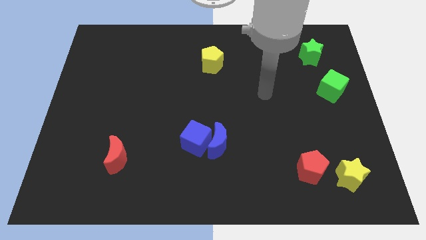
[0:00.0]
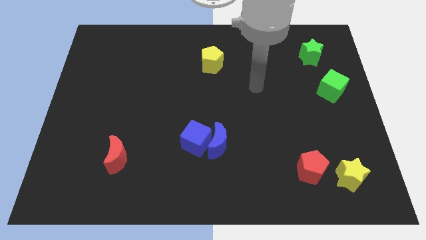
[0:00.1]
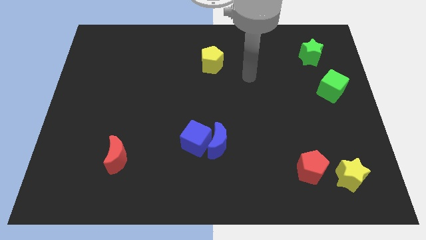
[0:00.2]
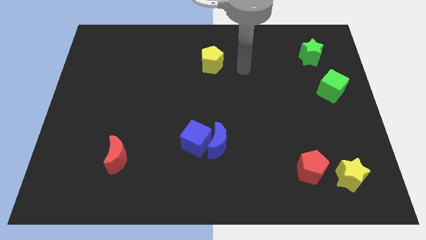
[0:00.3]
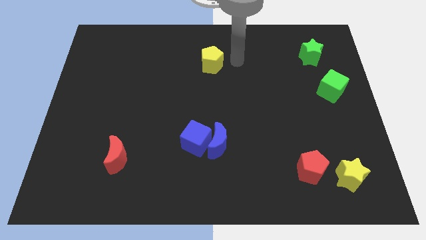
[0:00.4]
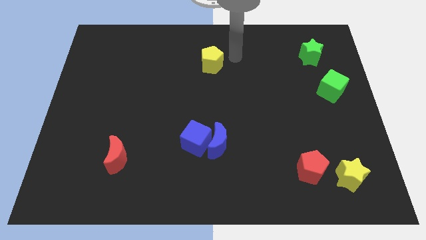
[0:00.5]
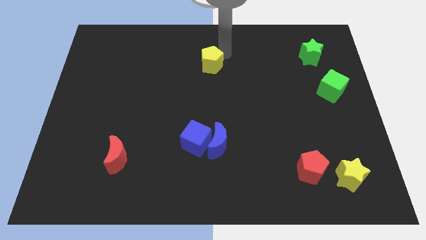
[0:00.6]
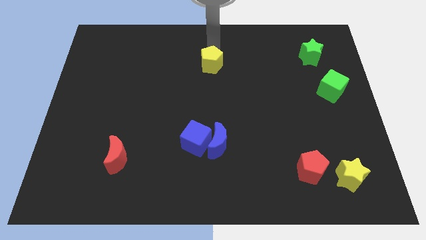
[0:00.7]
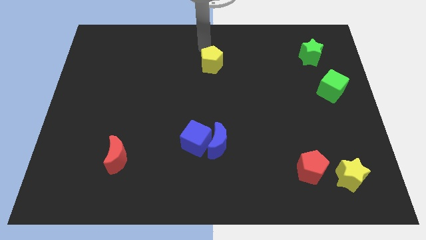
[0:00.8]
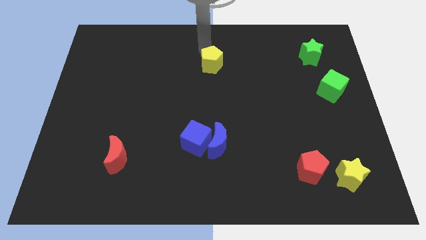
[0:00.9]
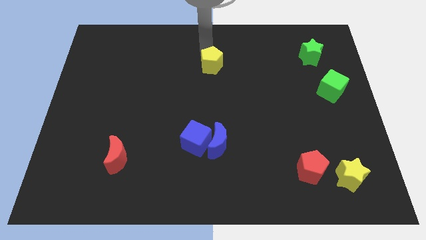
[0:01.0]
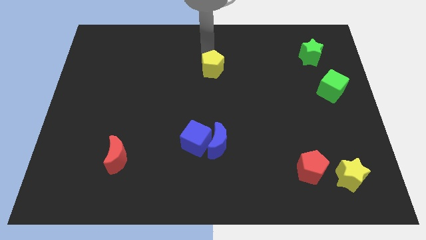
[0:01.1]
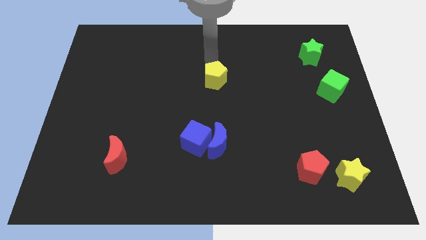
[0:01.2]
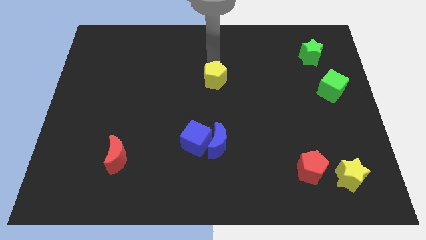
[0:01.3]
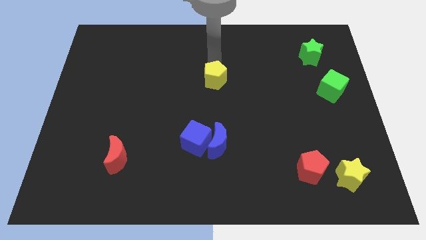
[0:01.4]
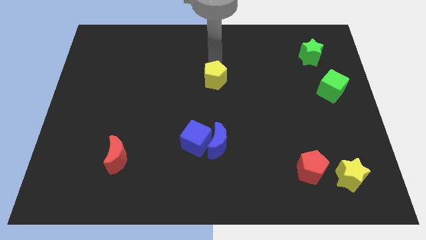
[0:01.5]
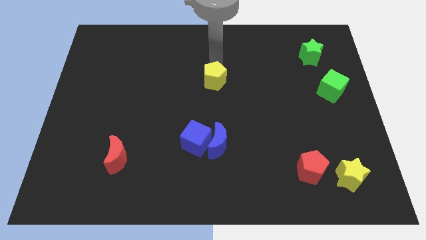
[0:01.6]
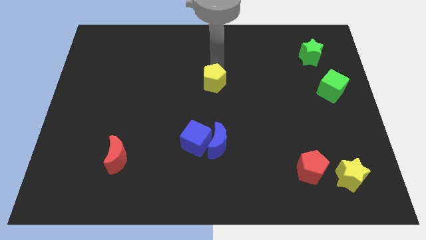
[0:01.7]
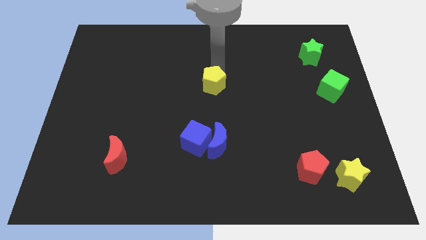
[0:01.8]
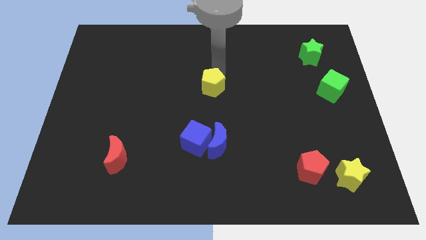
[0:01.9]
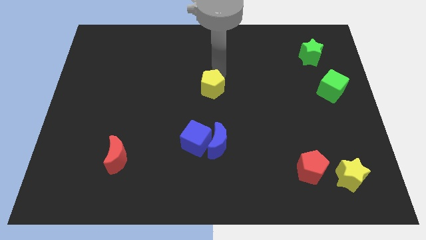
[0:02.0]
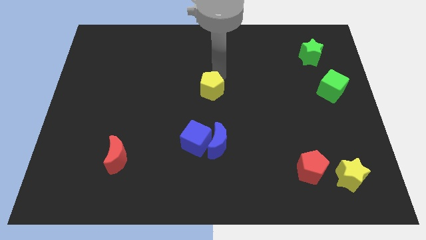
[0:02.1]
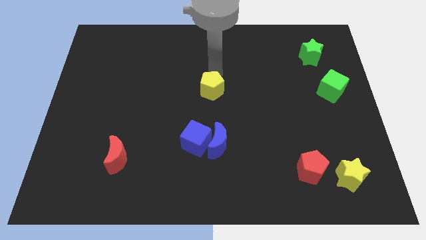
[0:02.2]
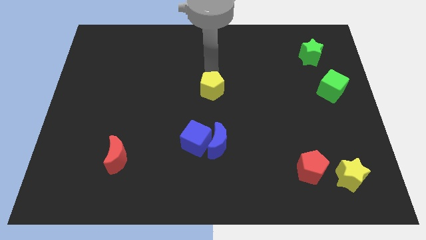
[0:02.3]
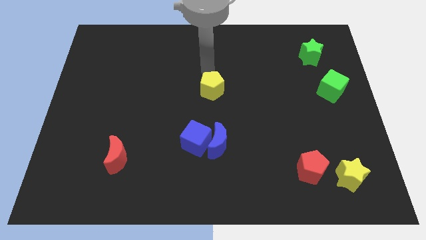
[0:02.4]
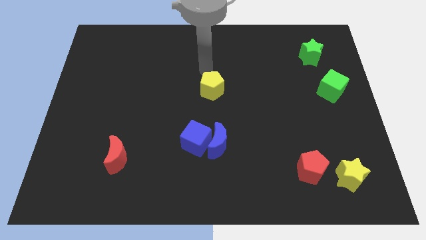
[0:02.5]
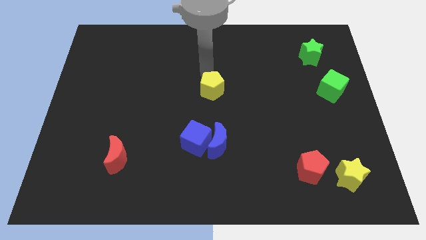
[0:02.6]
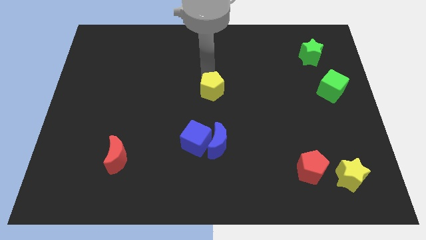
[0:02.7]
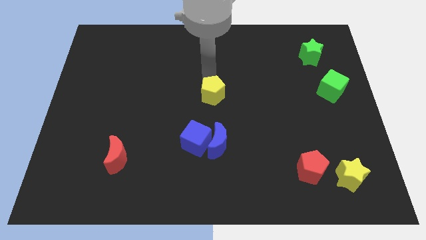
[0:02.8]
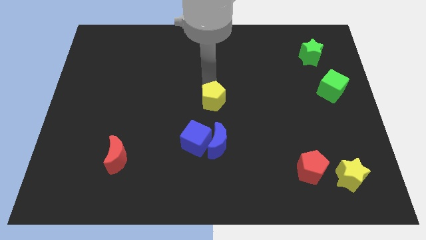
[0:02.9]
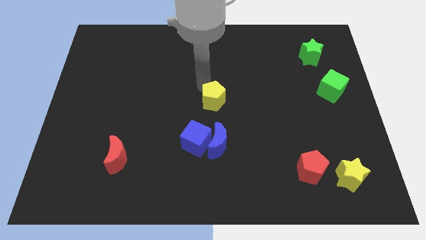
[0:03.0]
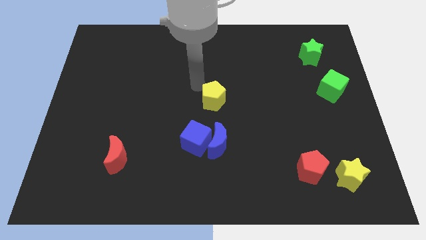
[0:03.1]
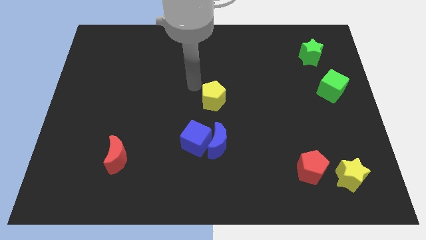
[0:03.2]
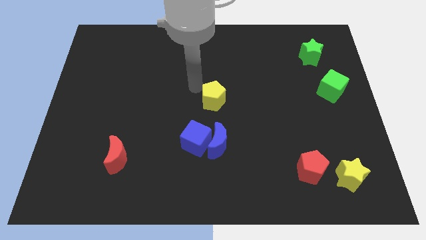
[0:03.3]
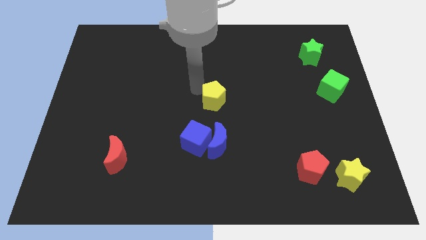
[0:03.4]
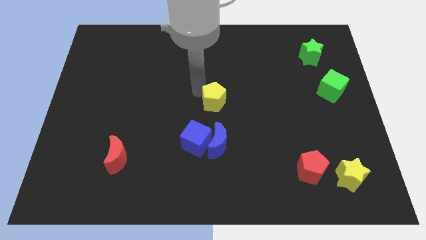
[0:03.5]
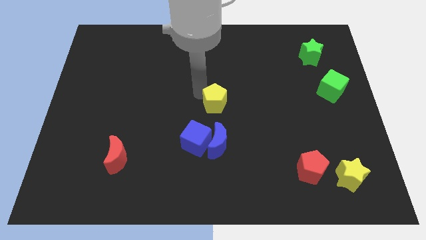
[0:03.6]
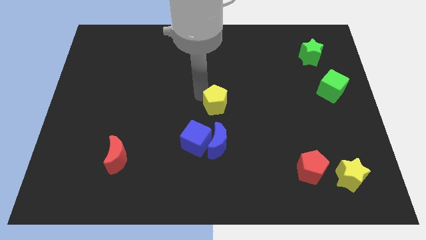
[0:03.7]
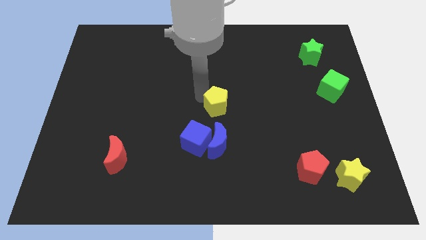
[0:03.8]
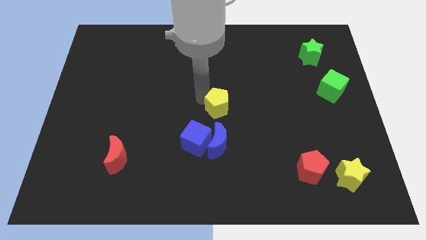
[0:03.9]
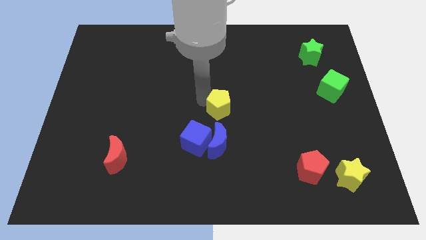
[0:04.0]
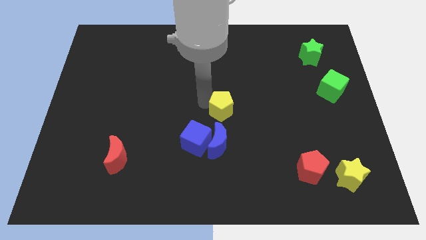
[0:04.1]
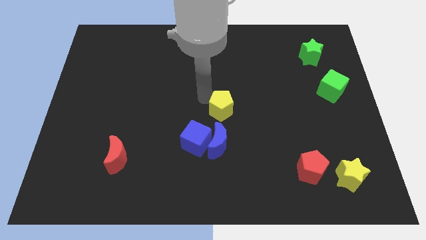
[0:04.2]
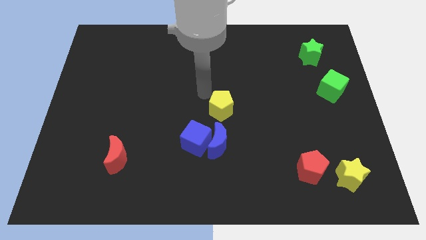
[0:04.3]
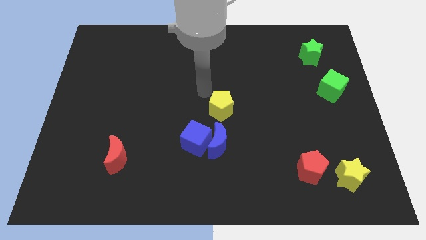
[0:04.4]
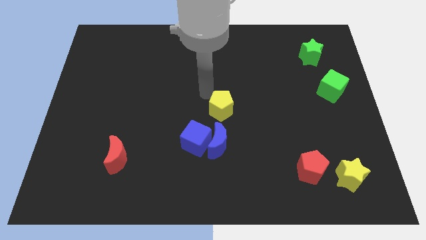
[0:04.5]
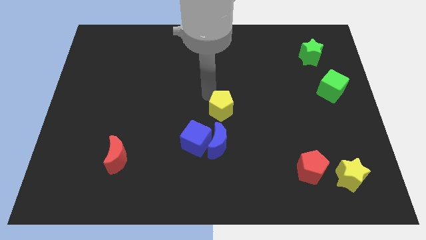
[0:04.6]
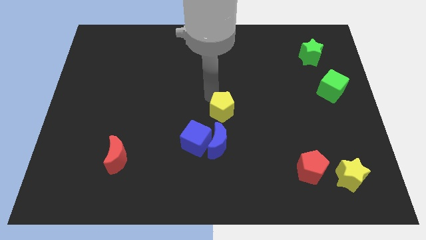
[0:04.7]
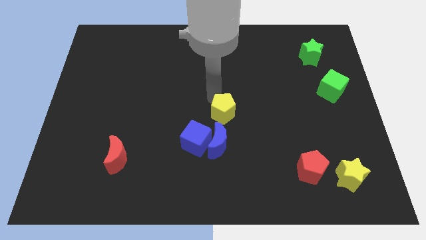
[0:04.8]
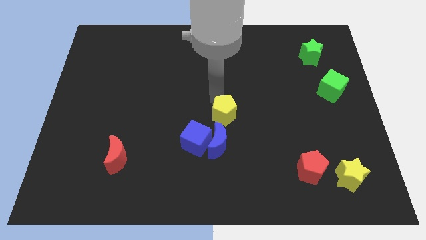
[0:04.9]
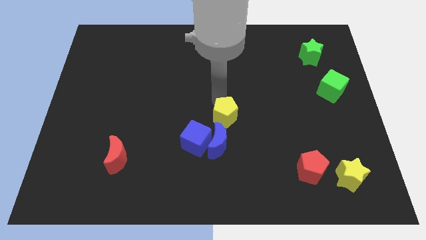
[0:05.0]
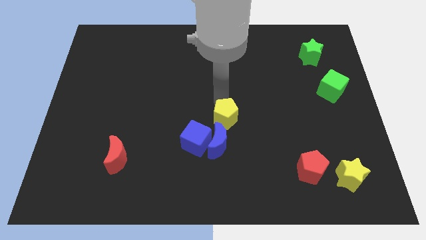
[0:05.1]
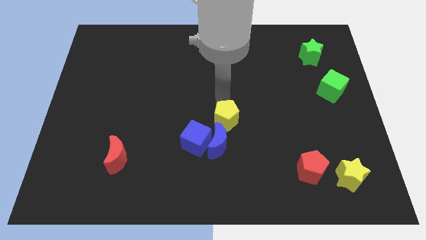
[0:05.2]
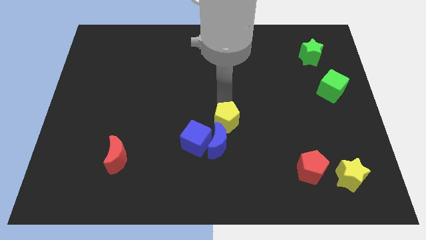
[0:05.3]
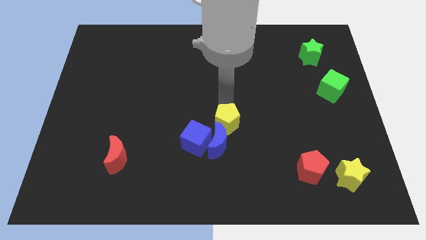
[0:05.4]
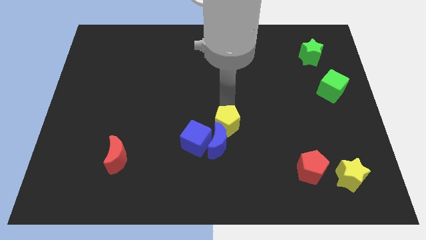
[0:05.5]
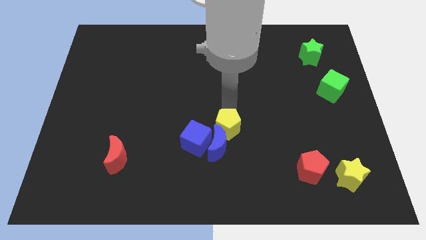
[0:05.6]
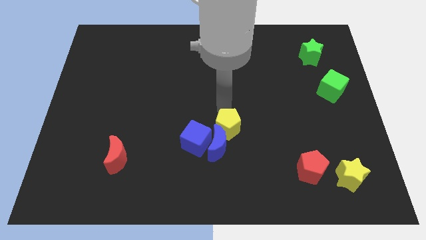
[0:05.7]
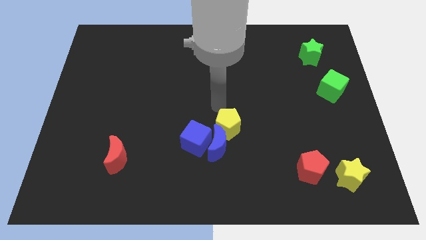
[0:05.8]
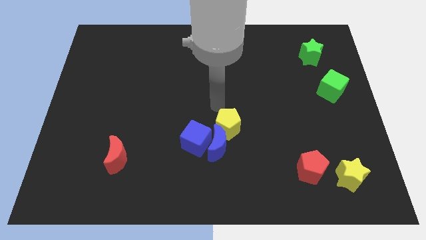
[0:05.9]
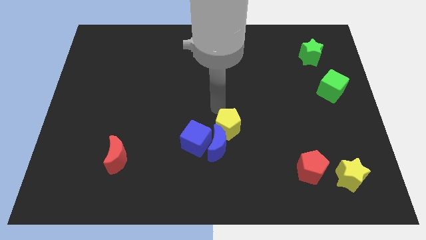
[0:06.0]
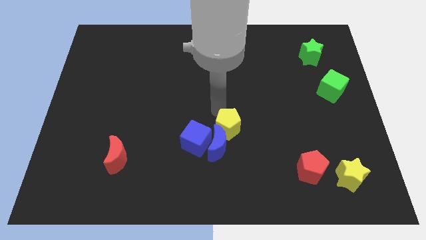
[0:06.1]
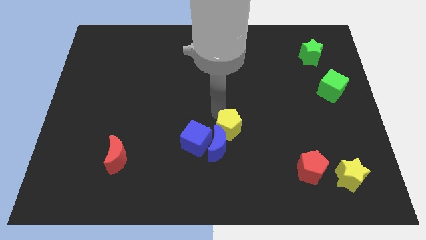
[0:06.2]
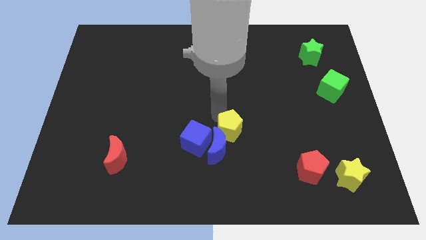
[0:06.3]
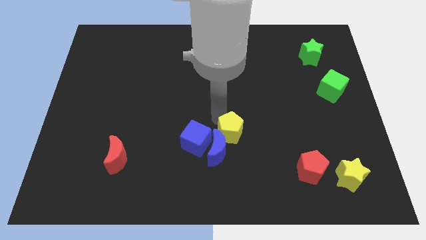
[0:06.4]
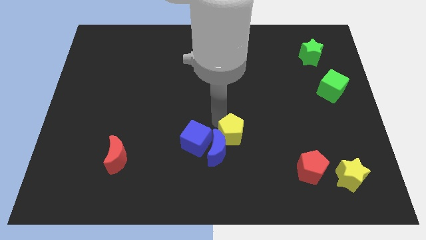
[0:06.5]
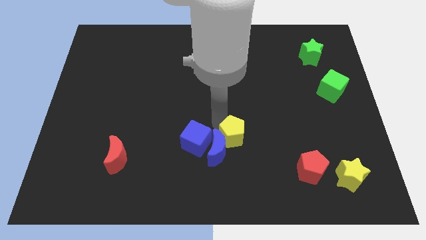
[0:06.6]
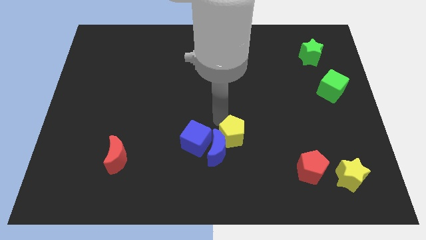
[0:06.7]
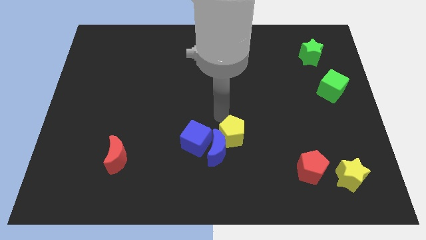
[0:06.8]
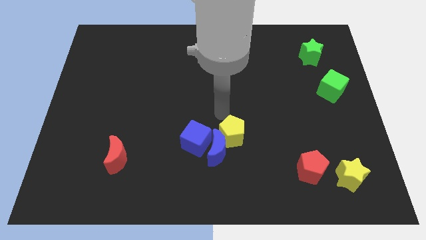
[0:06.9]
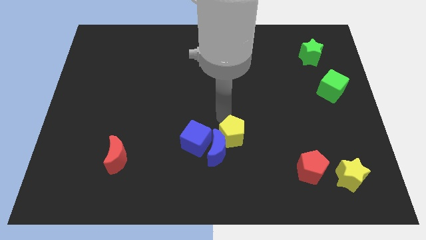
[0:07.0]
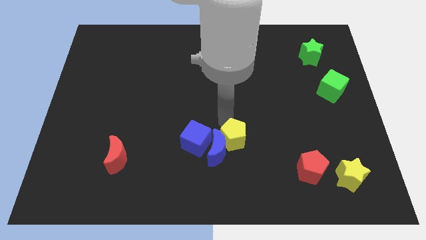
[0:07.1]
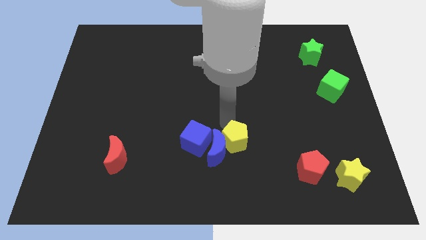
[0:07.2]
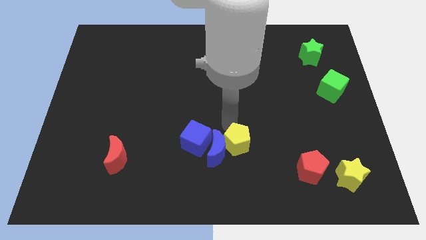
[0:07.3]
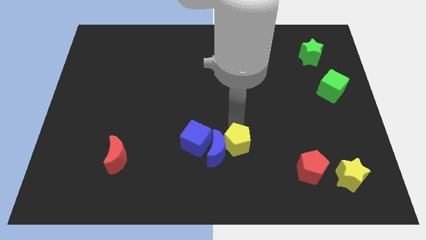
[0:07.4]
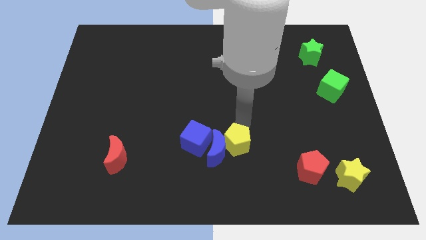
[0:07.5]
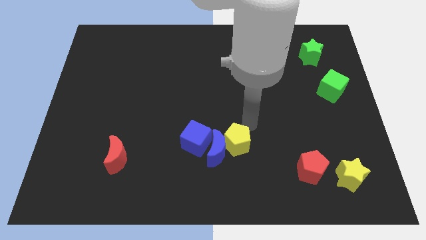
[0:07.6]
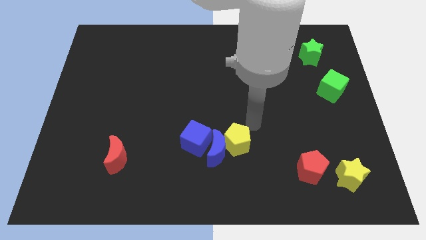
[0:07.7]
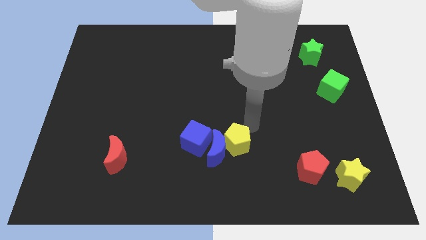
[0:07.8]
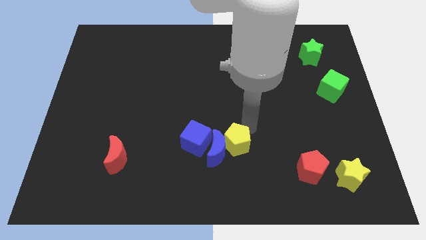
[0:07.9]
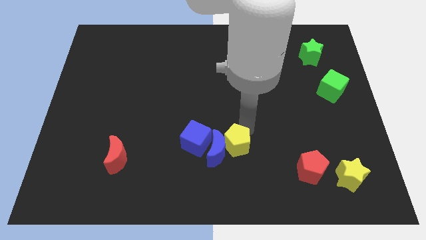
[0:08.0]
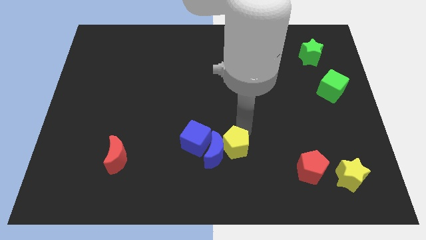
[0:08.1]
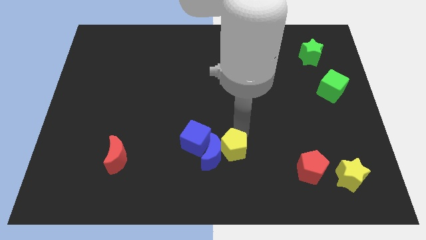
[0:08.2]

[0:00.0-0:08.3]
move the yellow pentagon to the bottom right side of the blue cube
